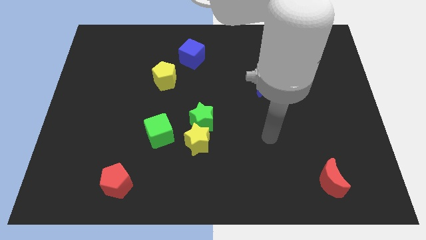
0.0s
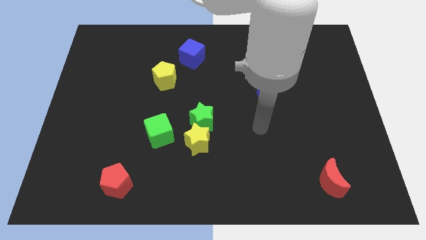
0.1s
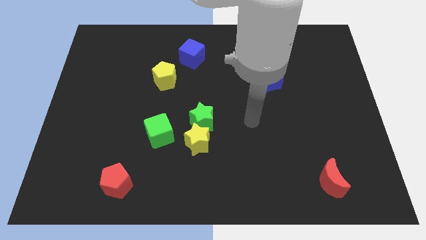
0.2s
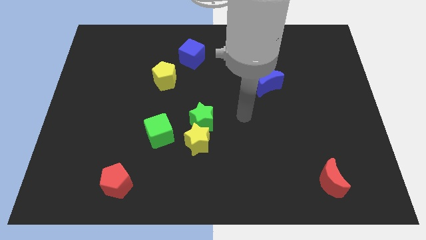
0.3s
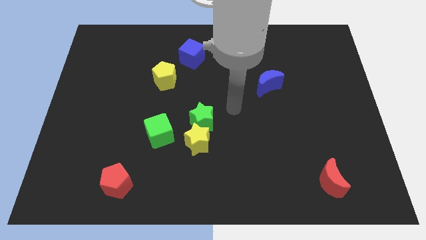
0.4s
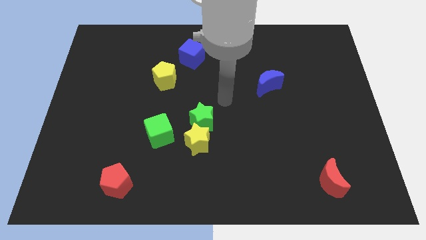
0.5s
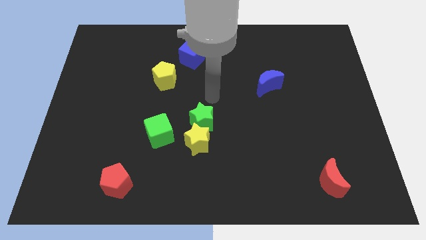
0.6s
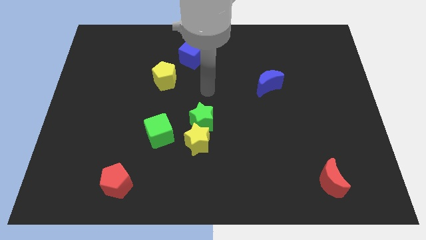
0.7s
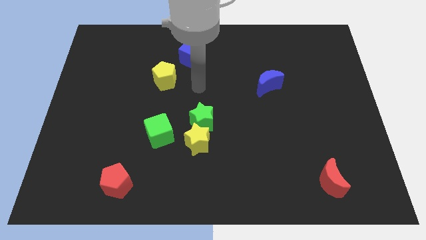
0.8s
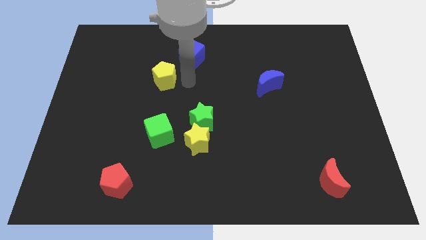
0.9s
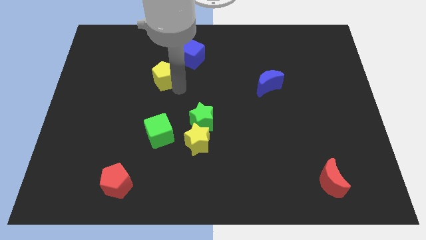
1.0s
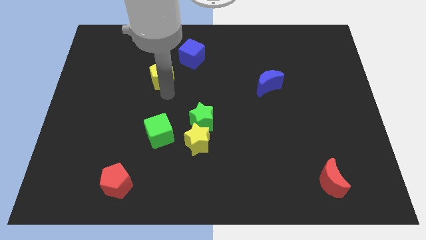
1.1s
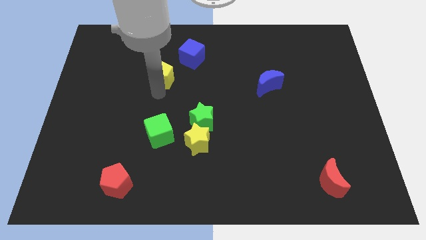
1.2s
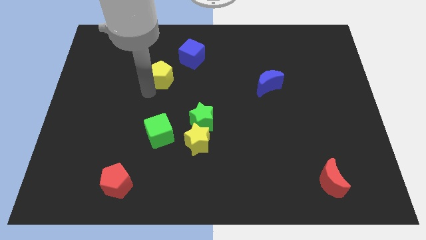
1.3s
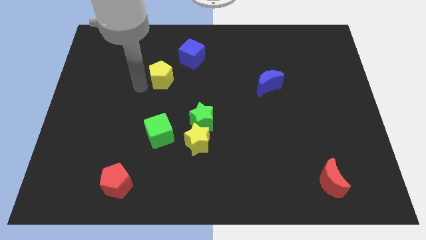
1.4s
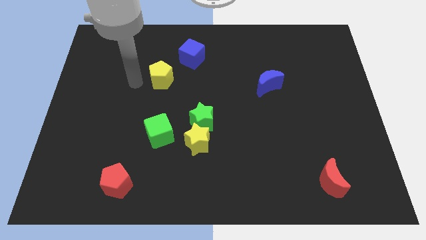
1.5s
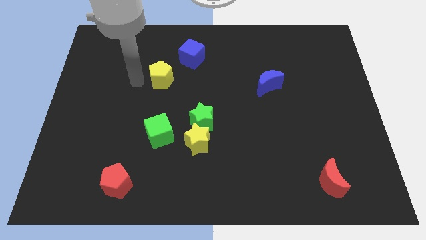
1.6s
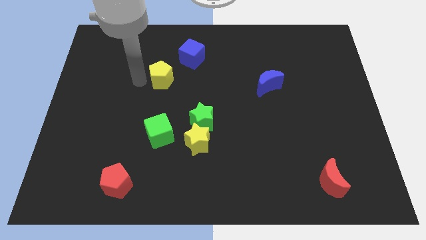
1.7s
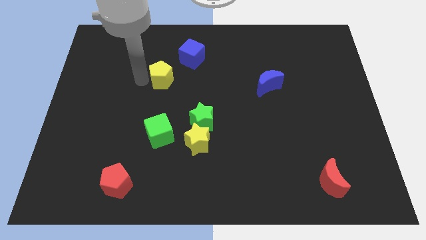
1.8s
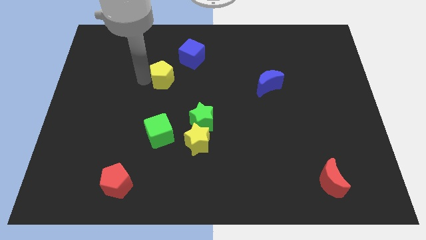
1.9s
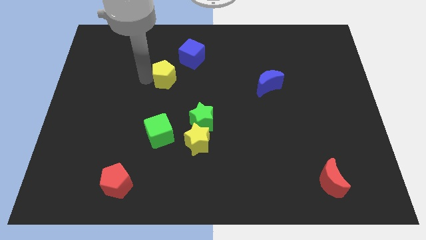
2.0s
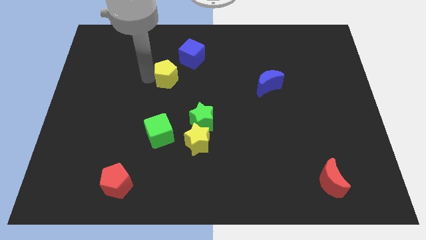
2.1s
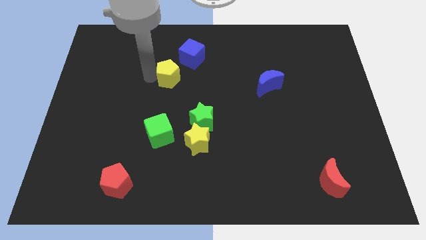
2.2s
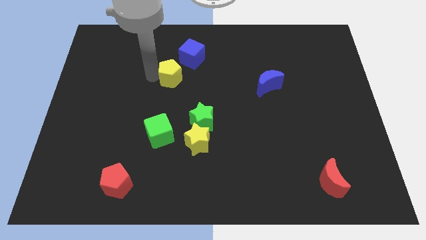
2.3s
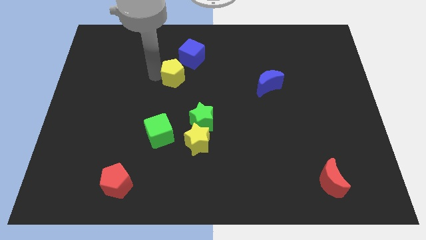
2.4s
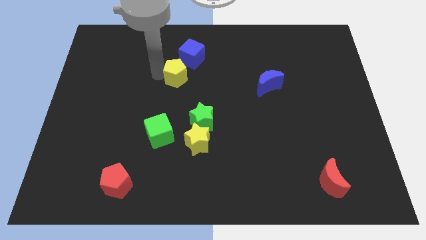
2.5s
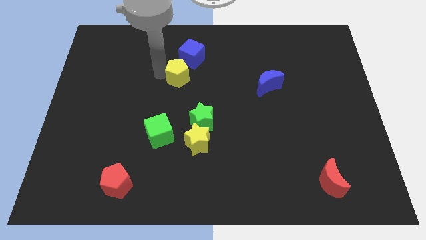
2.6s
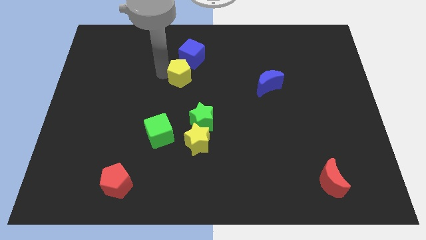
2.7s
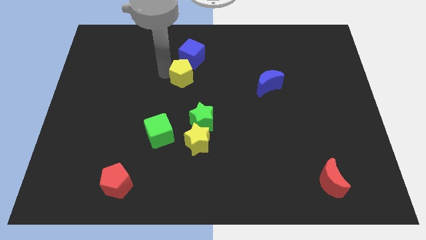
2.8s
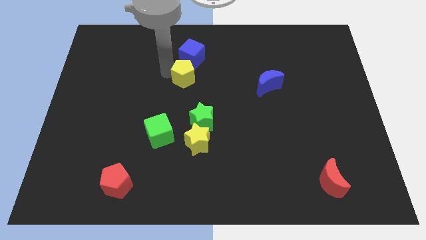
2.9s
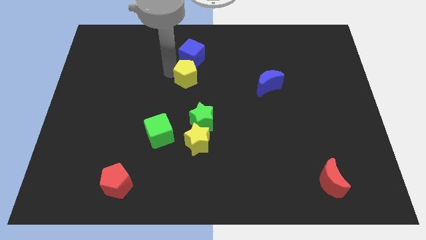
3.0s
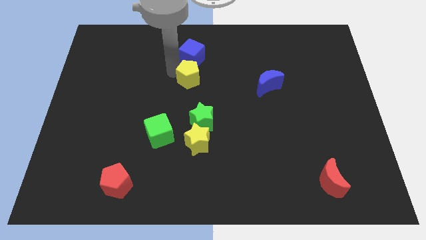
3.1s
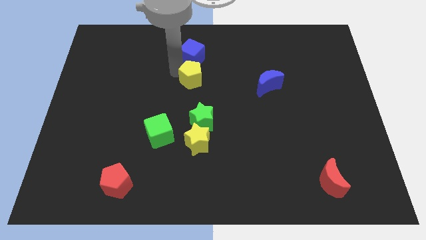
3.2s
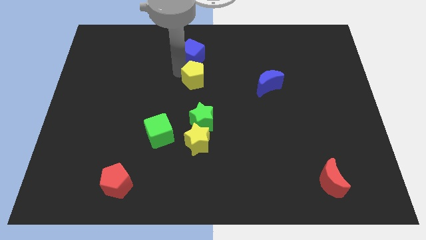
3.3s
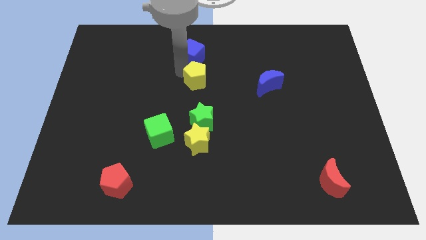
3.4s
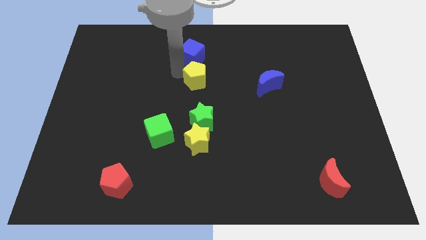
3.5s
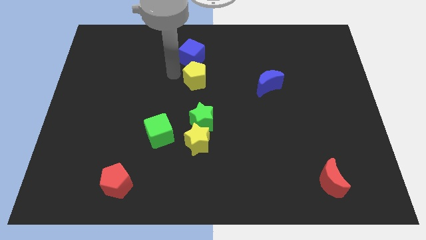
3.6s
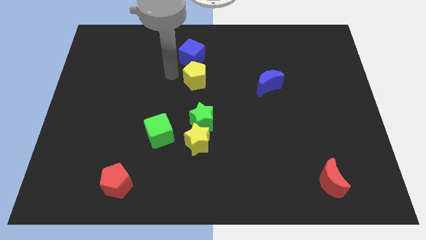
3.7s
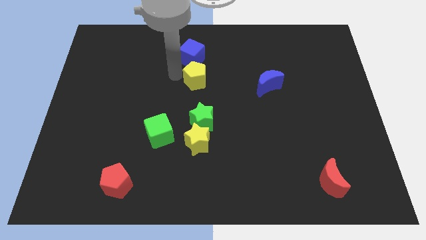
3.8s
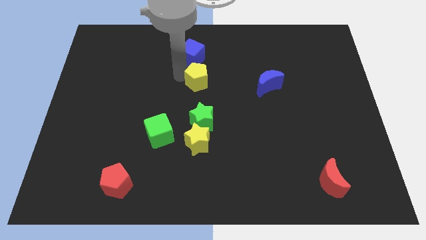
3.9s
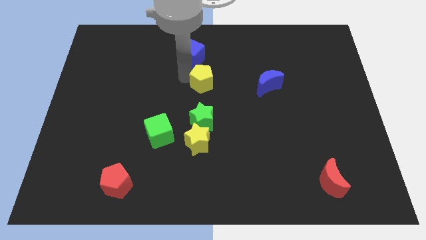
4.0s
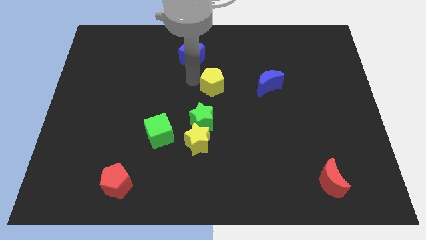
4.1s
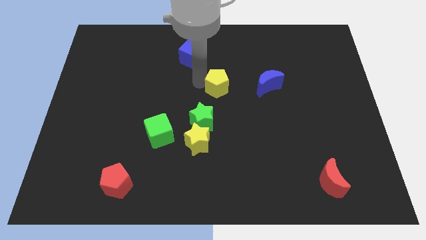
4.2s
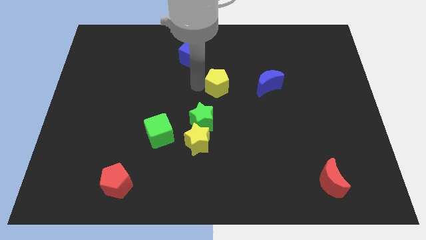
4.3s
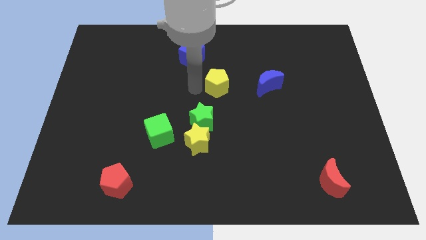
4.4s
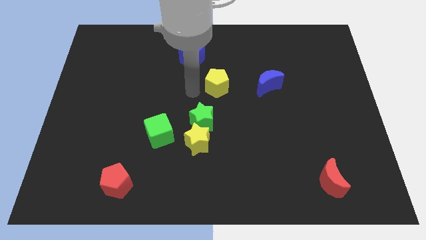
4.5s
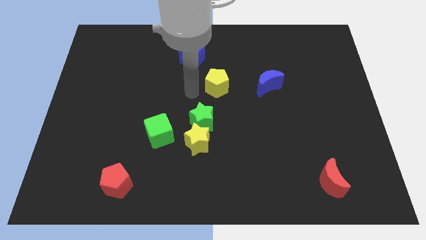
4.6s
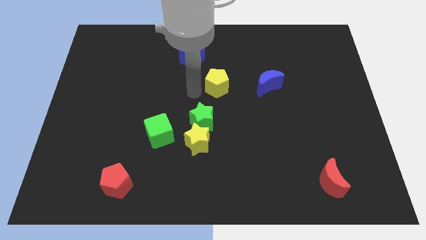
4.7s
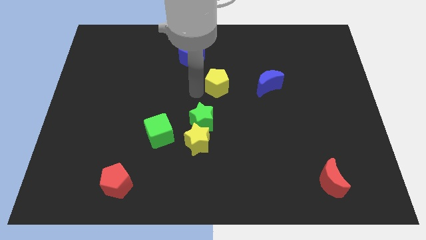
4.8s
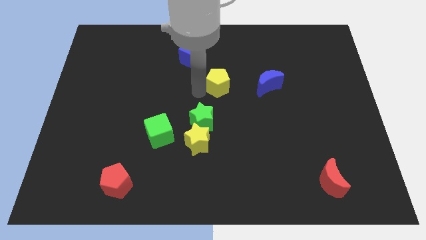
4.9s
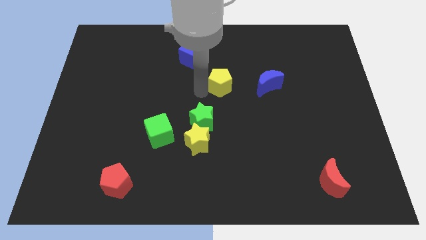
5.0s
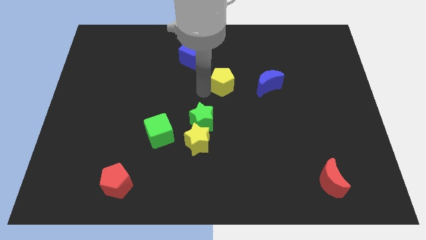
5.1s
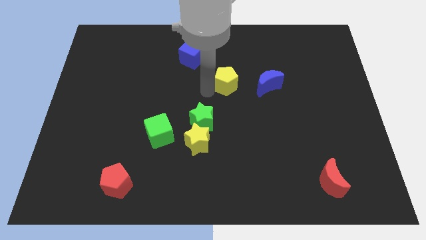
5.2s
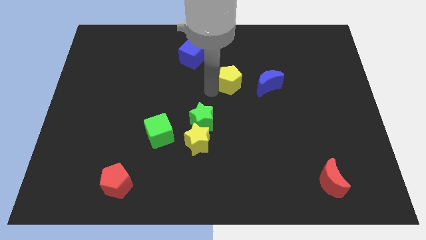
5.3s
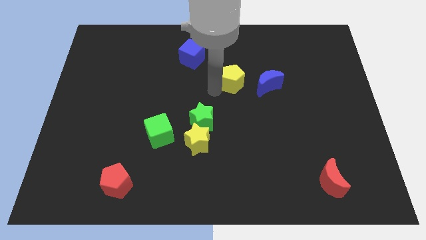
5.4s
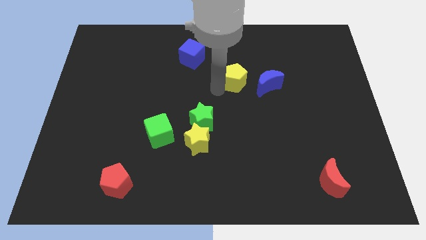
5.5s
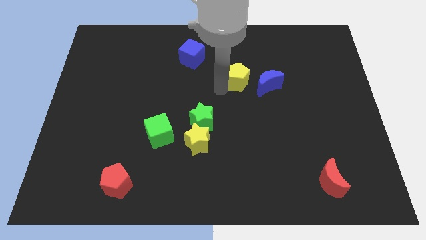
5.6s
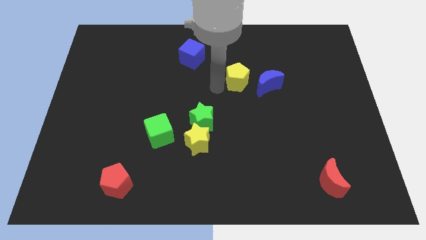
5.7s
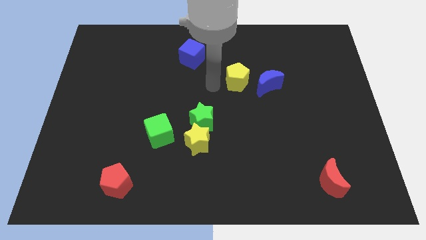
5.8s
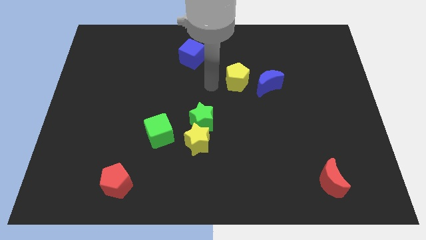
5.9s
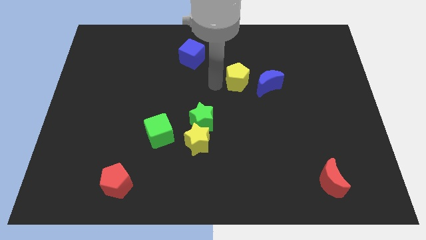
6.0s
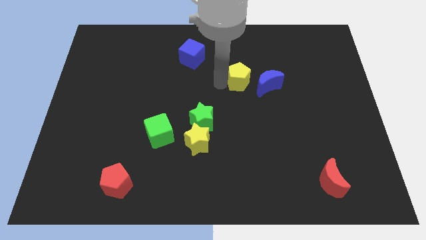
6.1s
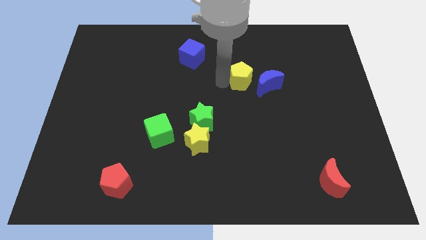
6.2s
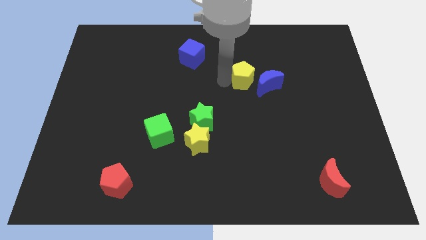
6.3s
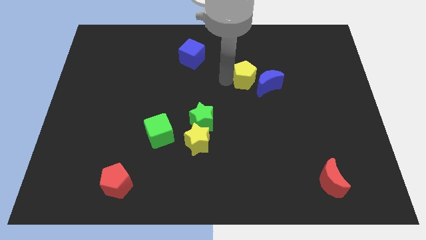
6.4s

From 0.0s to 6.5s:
slide the yellow pentagon towards the blue moon

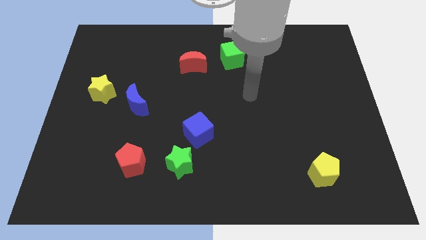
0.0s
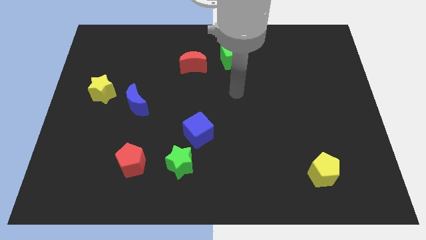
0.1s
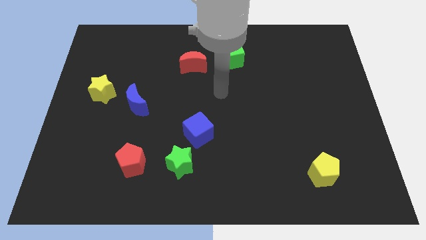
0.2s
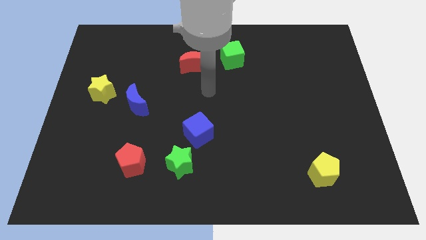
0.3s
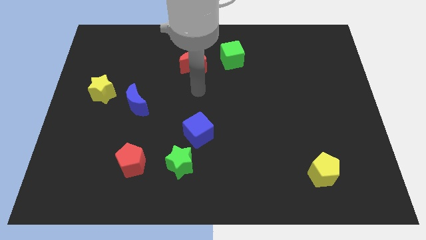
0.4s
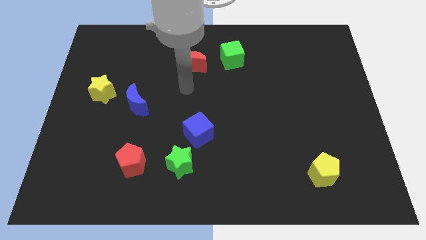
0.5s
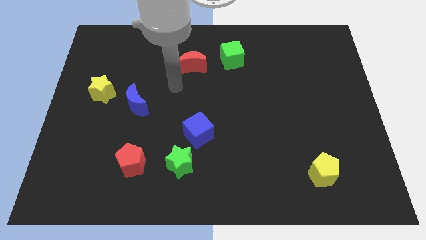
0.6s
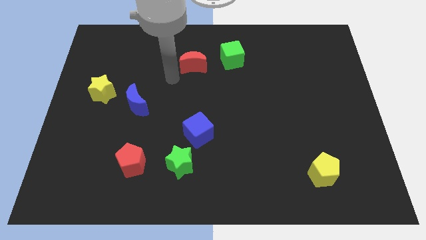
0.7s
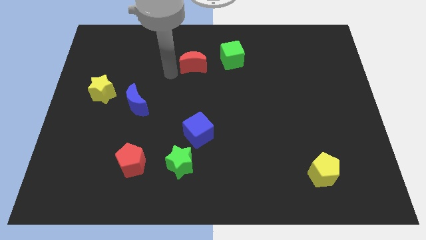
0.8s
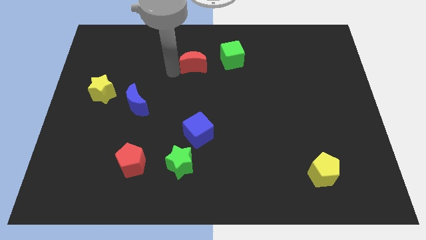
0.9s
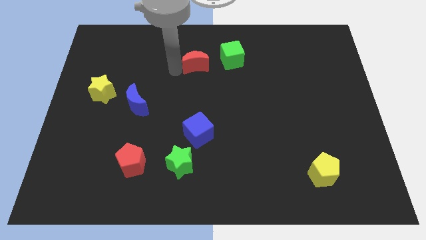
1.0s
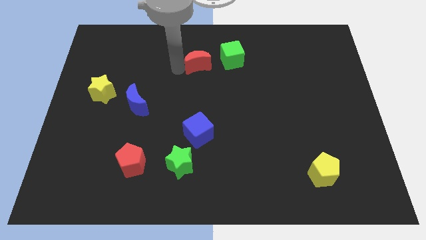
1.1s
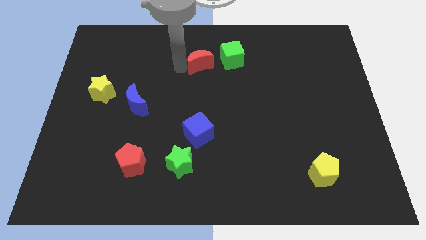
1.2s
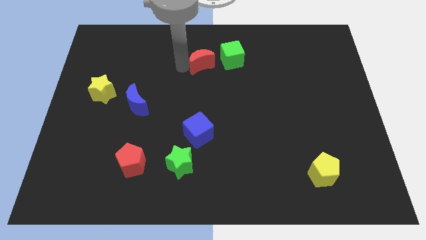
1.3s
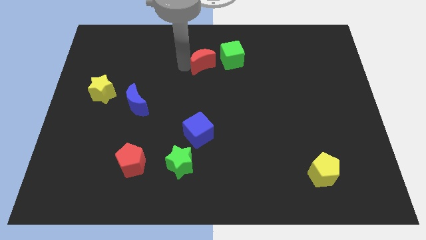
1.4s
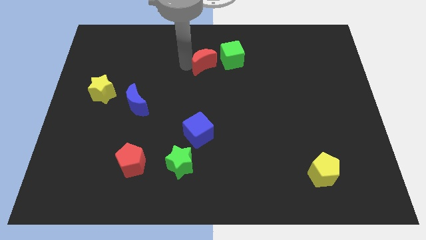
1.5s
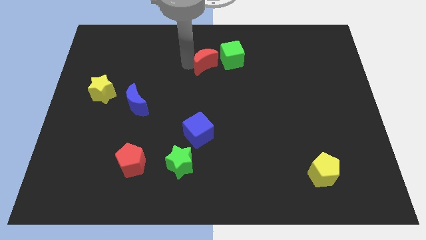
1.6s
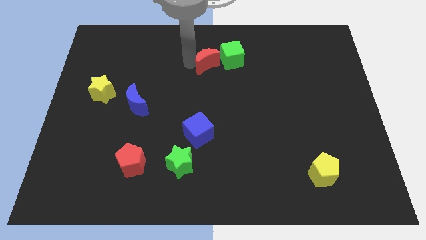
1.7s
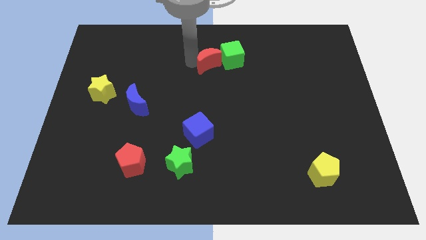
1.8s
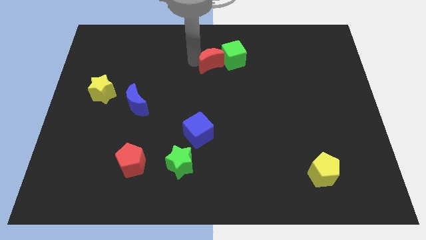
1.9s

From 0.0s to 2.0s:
move the red moon to the green cube
